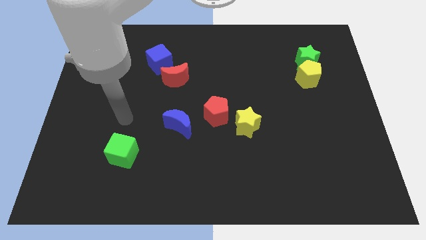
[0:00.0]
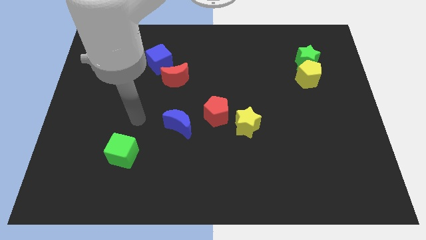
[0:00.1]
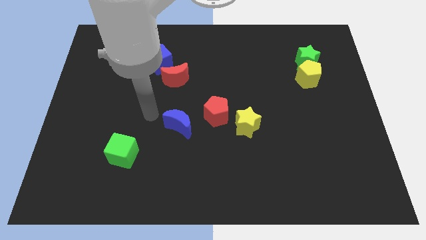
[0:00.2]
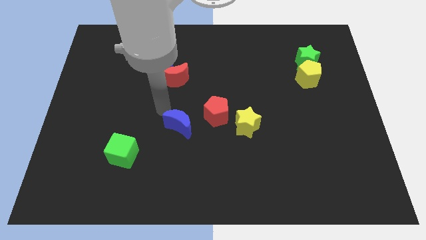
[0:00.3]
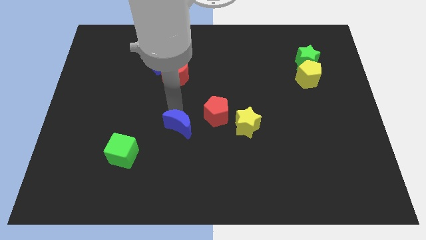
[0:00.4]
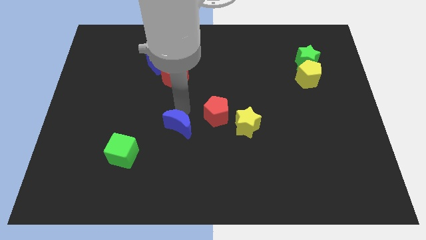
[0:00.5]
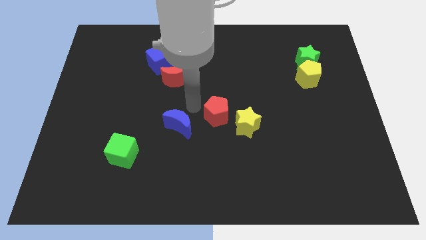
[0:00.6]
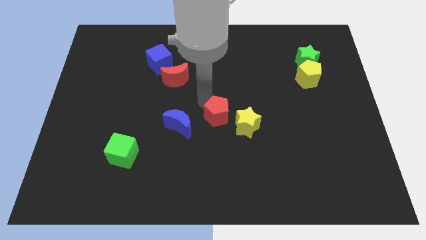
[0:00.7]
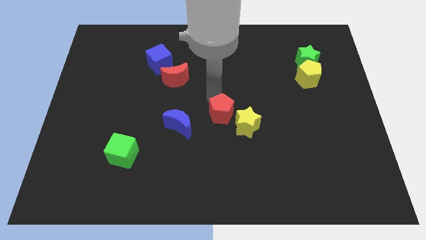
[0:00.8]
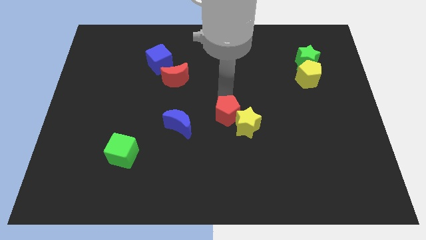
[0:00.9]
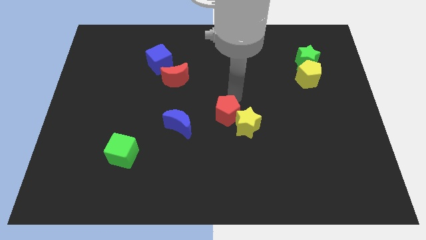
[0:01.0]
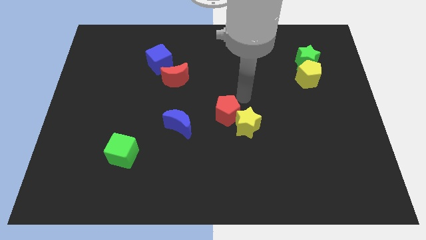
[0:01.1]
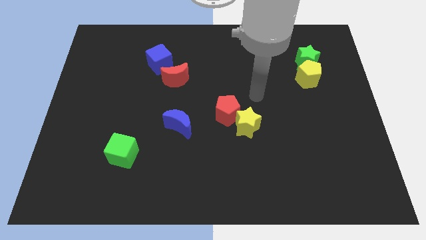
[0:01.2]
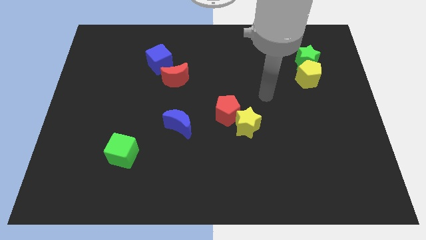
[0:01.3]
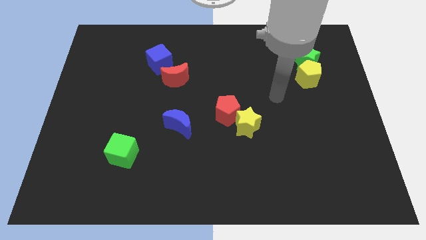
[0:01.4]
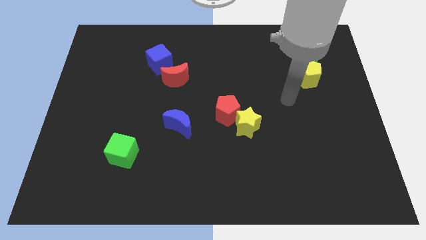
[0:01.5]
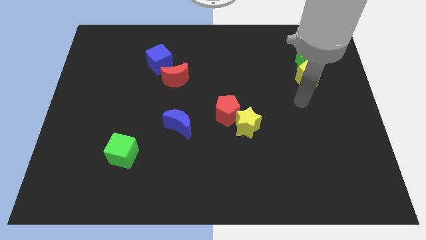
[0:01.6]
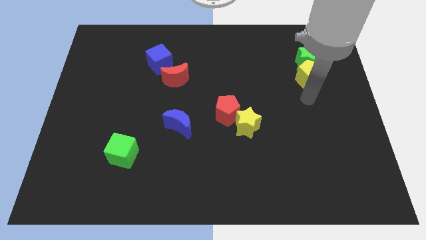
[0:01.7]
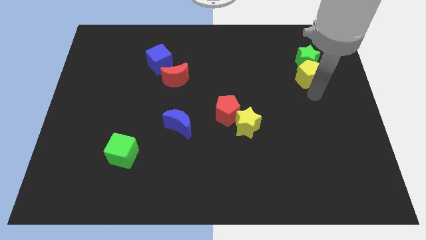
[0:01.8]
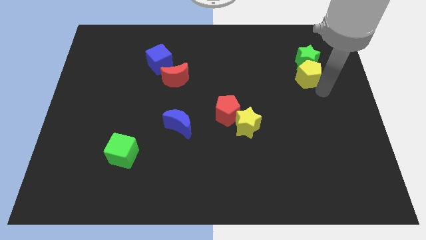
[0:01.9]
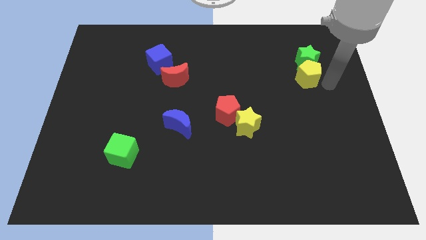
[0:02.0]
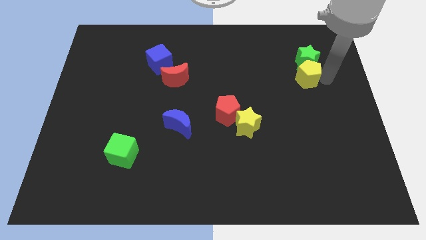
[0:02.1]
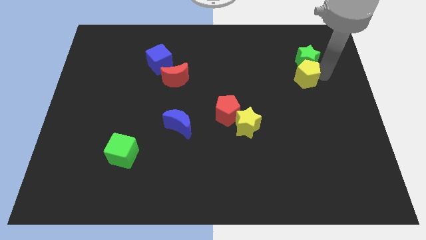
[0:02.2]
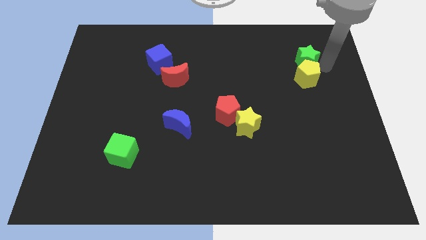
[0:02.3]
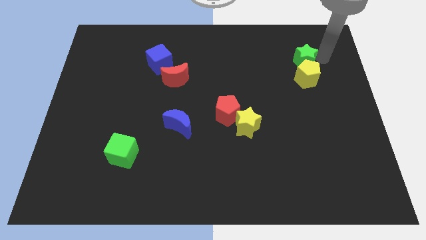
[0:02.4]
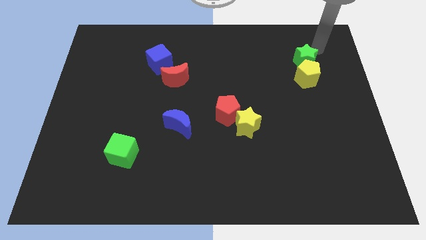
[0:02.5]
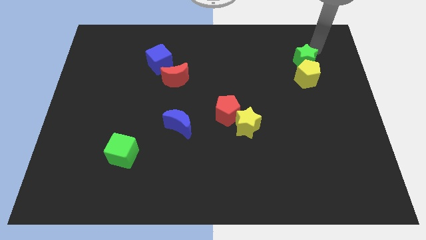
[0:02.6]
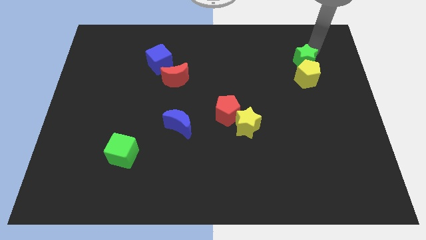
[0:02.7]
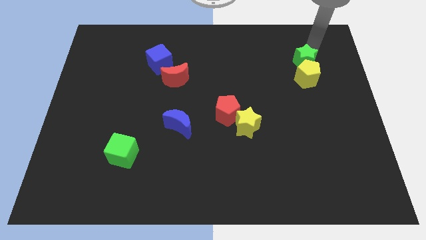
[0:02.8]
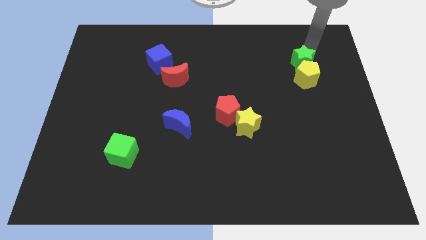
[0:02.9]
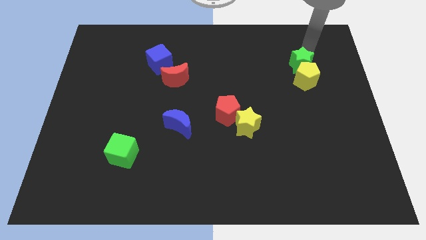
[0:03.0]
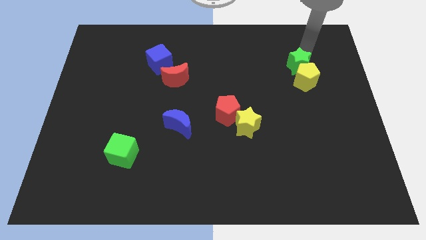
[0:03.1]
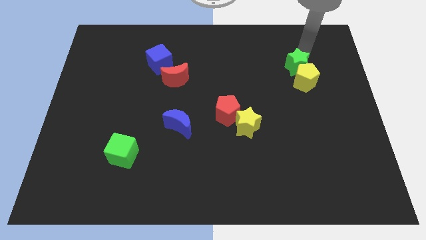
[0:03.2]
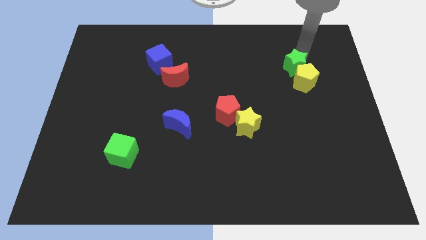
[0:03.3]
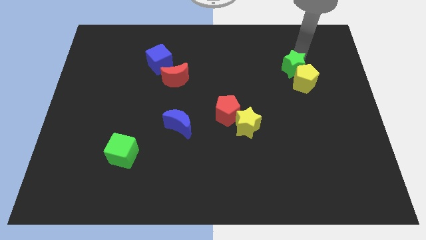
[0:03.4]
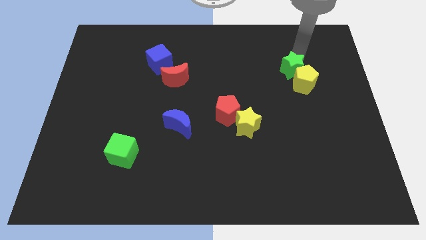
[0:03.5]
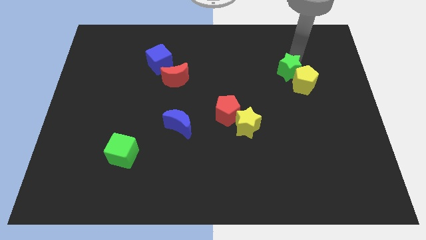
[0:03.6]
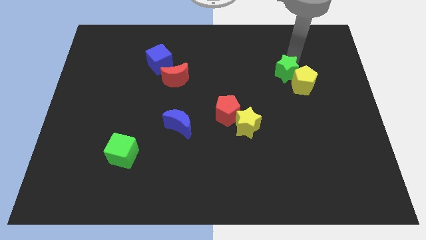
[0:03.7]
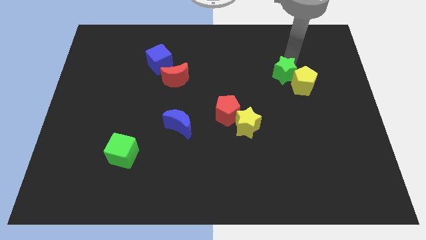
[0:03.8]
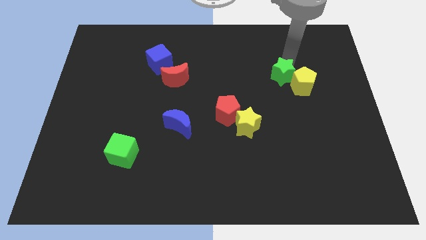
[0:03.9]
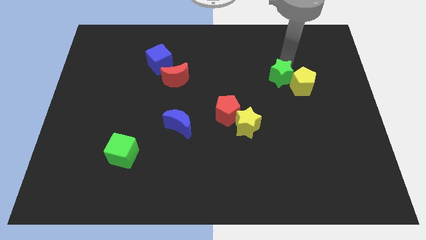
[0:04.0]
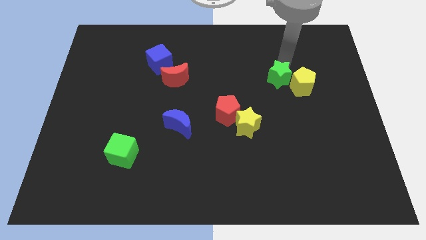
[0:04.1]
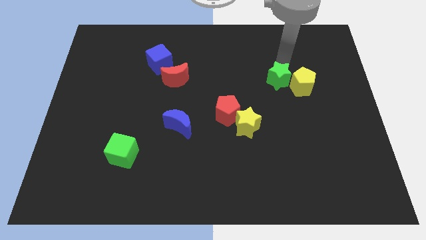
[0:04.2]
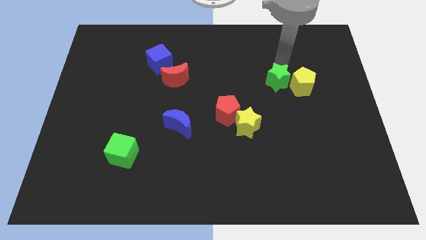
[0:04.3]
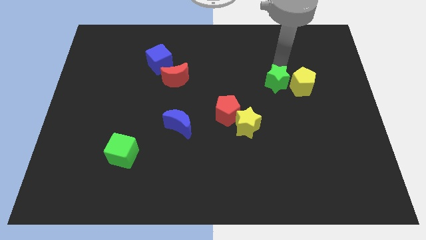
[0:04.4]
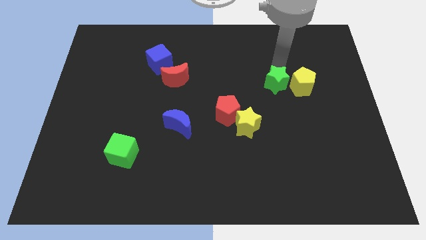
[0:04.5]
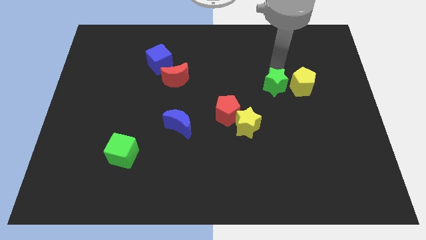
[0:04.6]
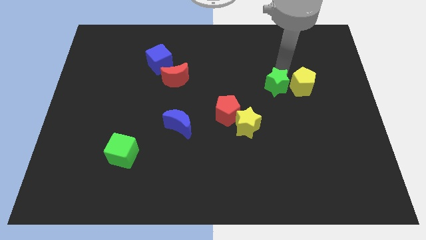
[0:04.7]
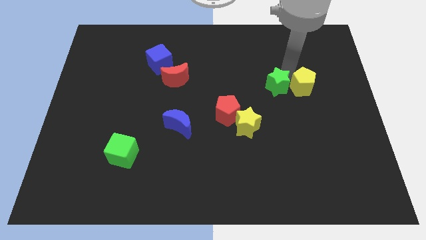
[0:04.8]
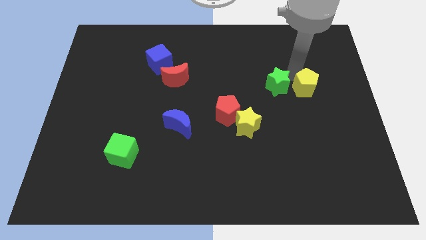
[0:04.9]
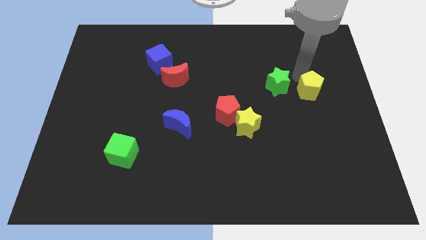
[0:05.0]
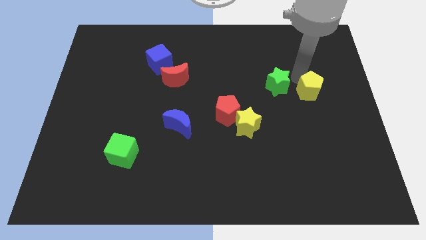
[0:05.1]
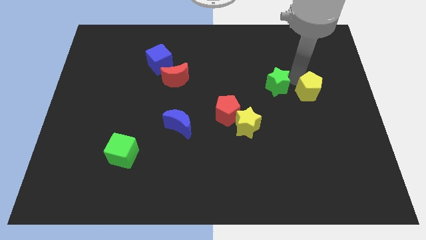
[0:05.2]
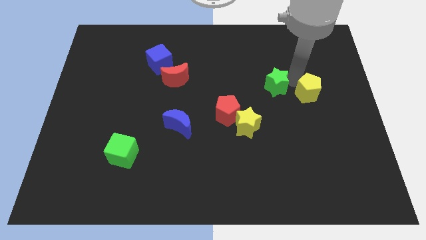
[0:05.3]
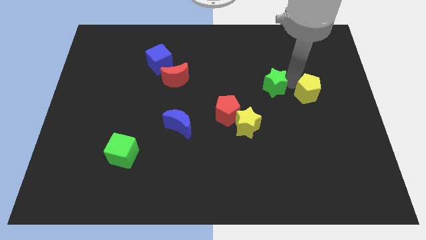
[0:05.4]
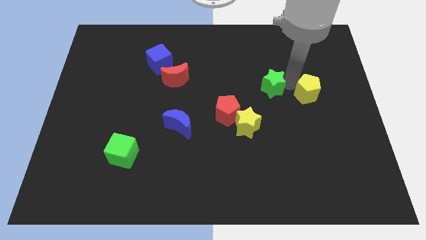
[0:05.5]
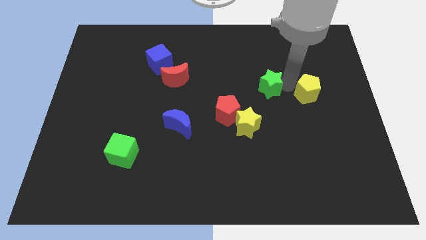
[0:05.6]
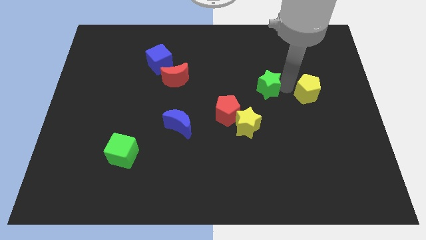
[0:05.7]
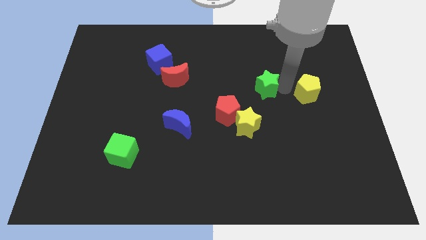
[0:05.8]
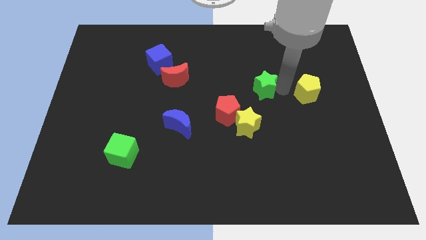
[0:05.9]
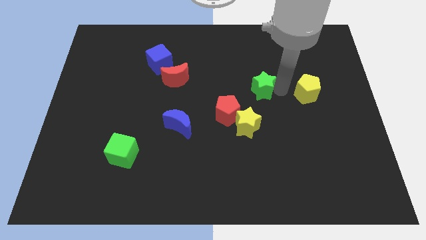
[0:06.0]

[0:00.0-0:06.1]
push the green star to the center of the board
